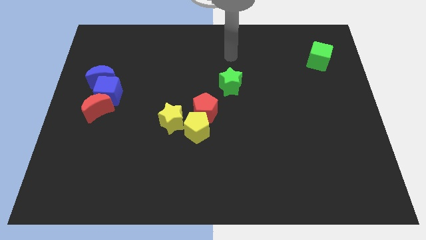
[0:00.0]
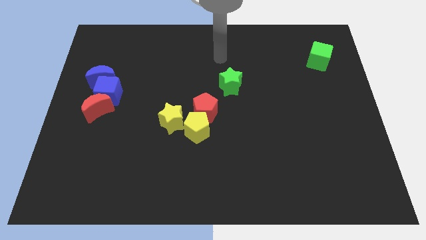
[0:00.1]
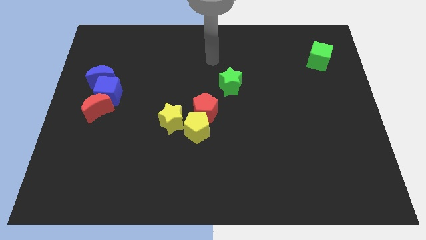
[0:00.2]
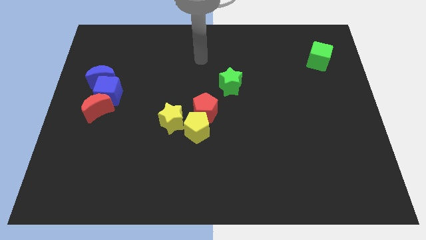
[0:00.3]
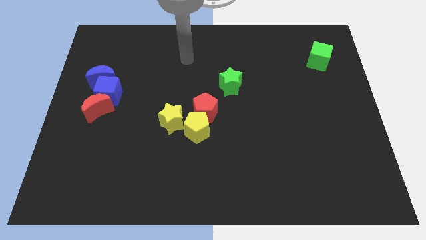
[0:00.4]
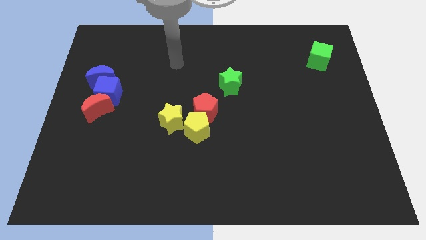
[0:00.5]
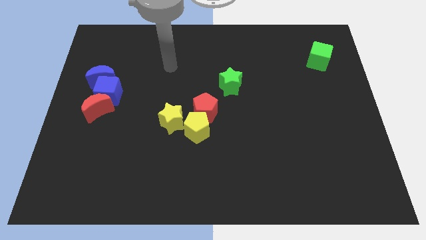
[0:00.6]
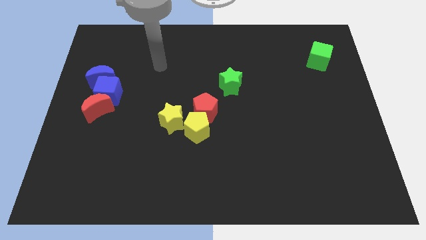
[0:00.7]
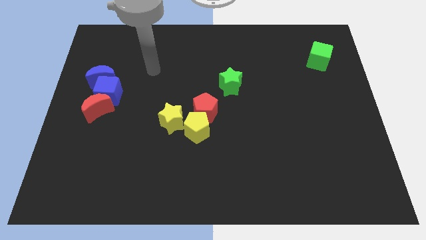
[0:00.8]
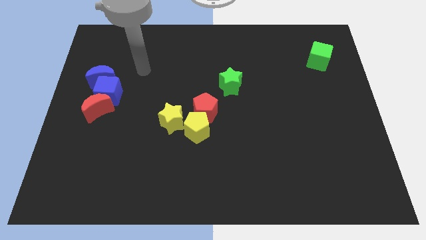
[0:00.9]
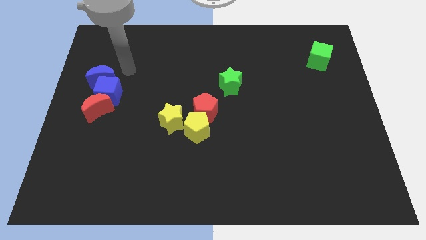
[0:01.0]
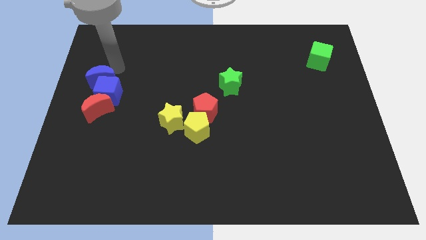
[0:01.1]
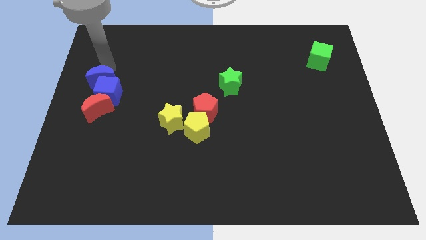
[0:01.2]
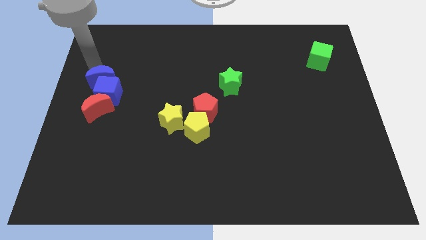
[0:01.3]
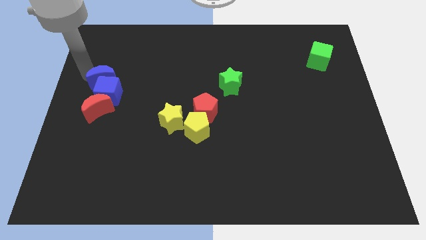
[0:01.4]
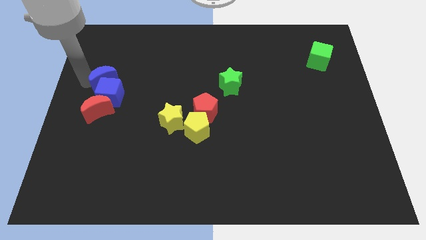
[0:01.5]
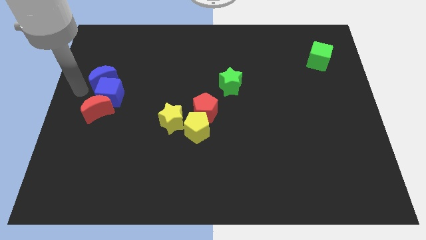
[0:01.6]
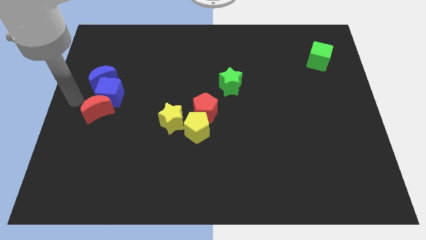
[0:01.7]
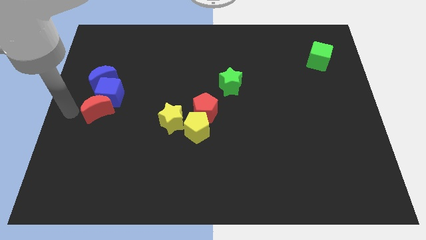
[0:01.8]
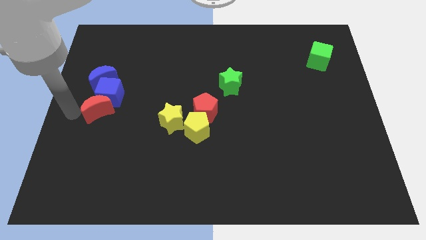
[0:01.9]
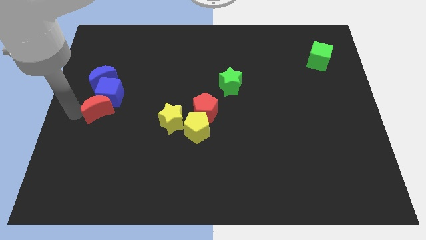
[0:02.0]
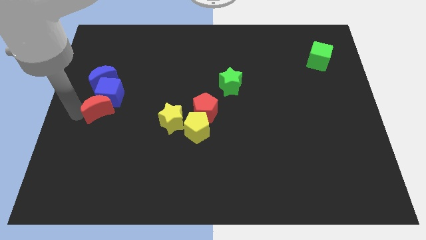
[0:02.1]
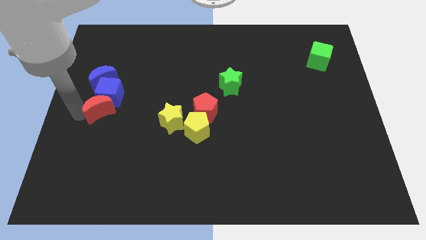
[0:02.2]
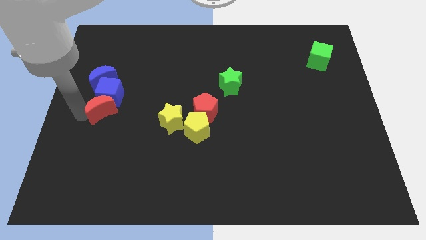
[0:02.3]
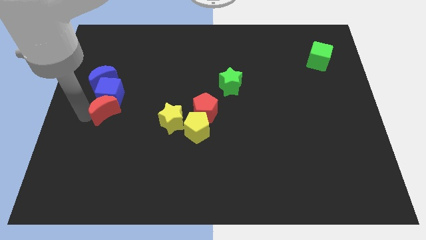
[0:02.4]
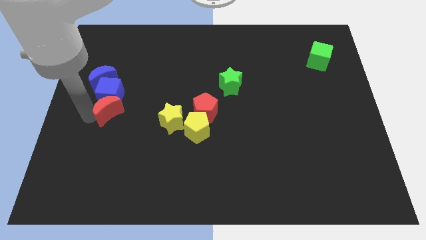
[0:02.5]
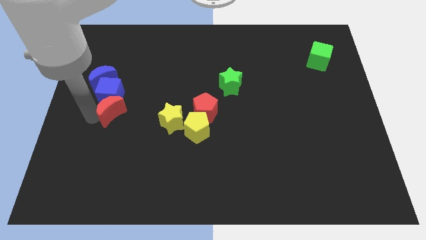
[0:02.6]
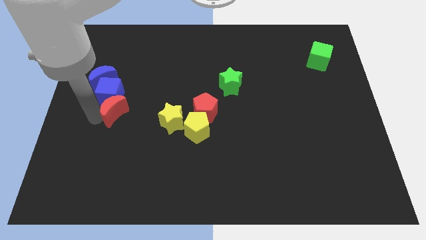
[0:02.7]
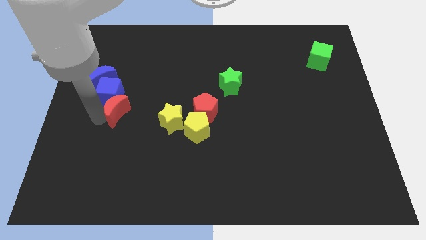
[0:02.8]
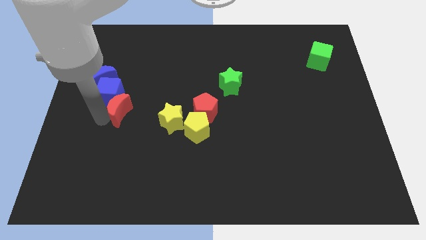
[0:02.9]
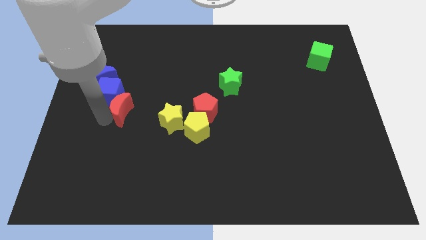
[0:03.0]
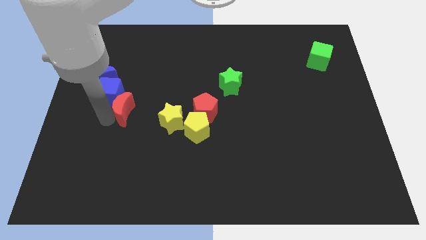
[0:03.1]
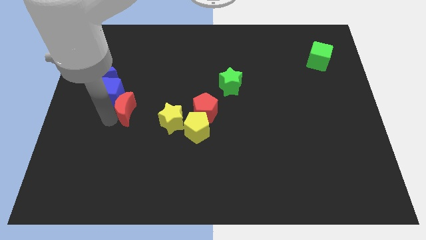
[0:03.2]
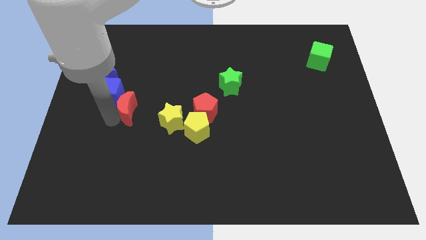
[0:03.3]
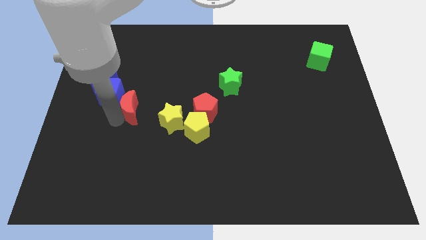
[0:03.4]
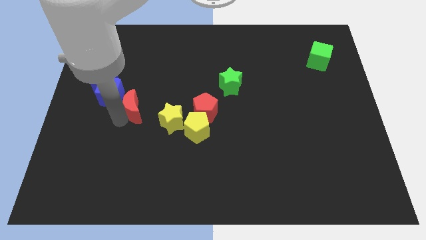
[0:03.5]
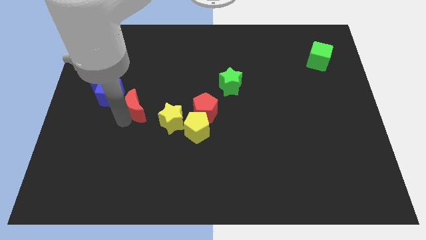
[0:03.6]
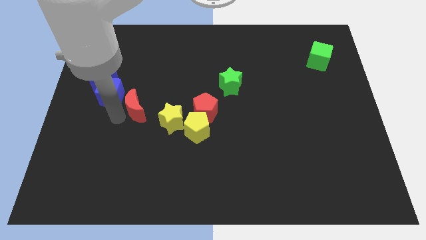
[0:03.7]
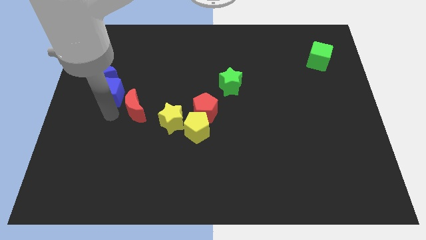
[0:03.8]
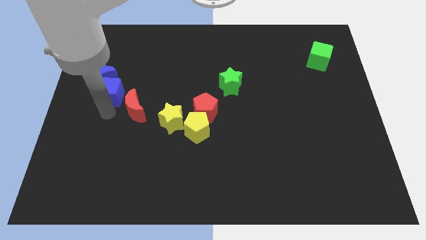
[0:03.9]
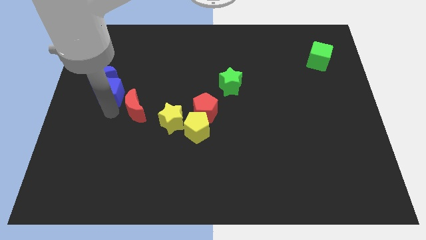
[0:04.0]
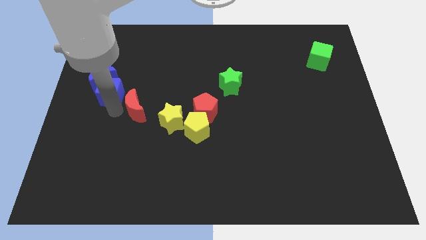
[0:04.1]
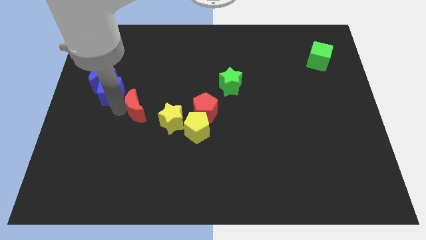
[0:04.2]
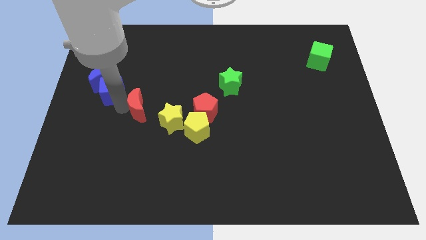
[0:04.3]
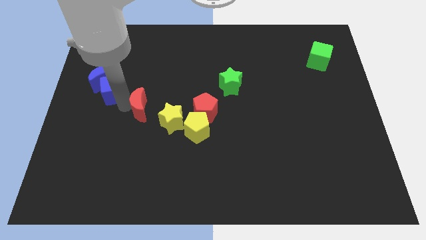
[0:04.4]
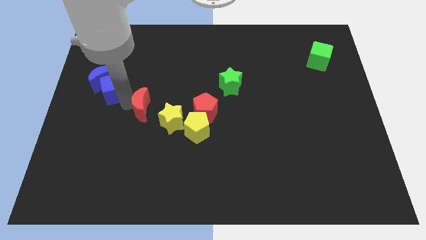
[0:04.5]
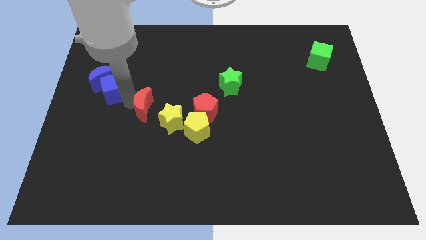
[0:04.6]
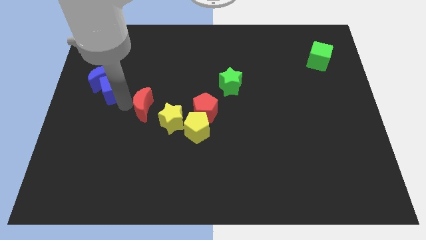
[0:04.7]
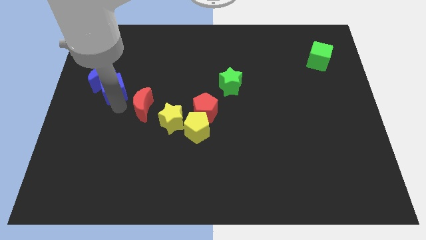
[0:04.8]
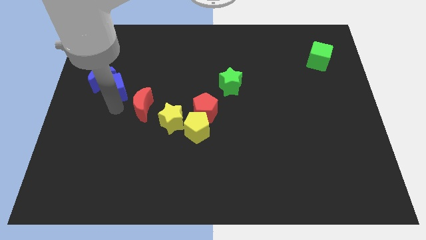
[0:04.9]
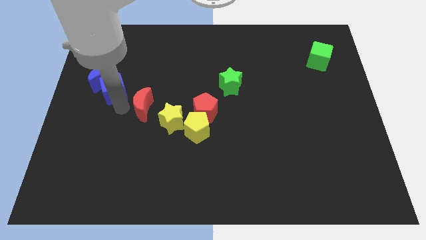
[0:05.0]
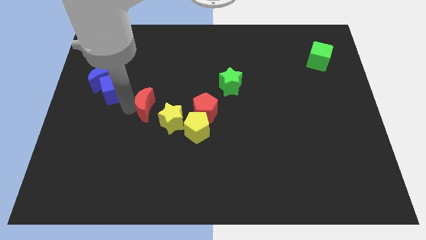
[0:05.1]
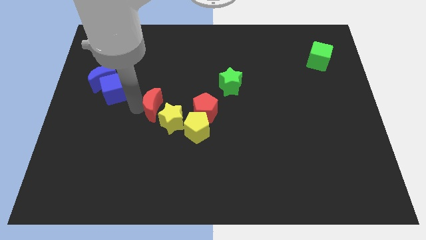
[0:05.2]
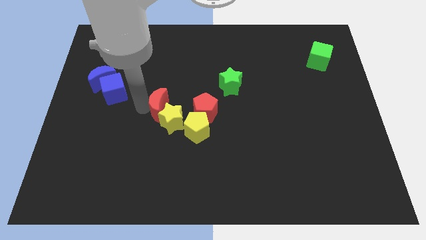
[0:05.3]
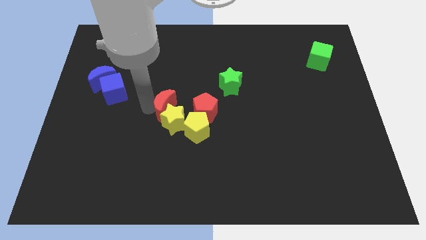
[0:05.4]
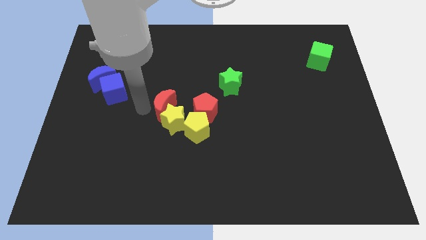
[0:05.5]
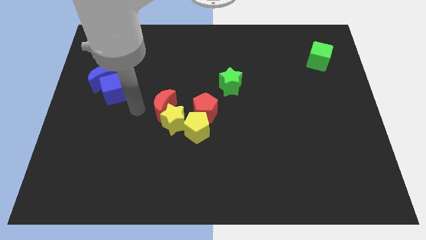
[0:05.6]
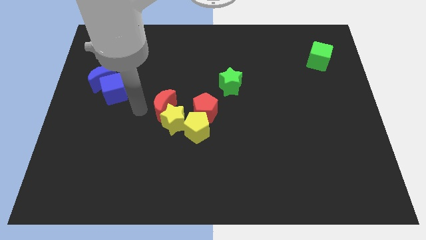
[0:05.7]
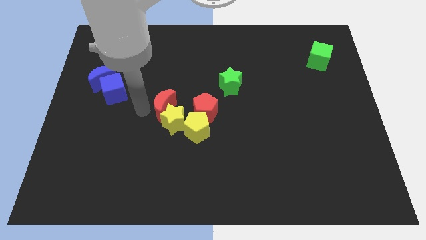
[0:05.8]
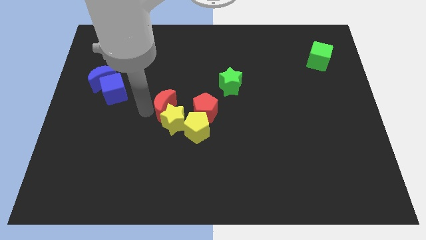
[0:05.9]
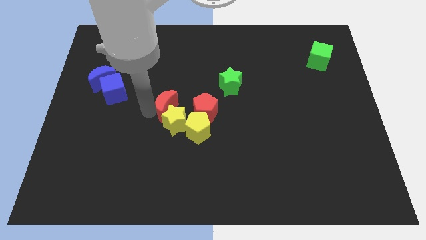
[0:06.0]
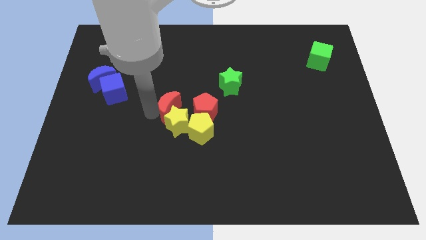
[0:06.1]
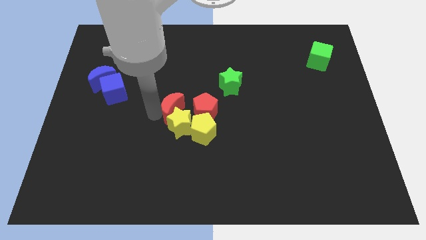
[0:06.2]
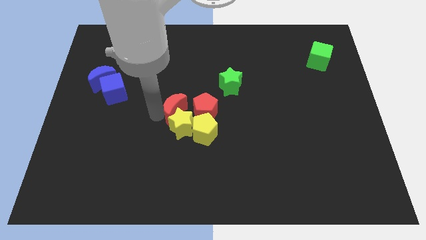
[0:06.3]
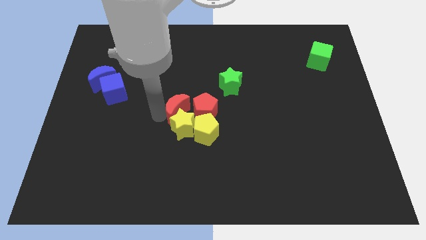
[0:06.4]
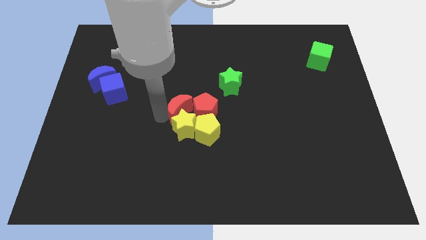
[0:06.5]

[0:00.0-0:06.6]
put the red moon to the red pentagon

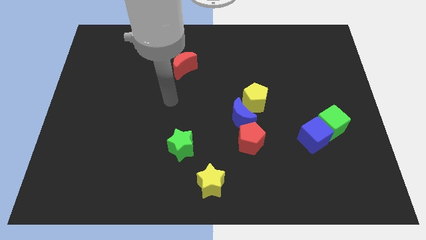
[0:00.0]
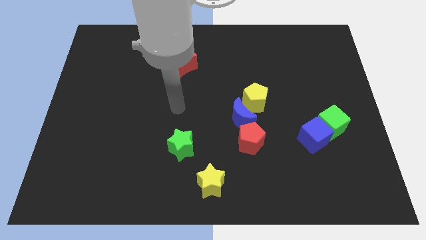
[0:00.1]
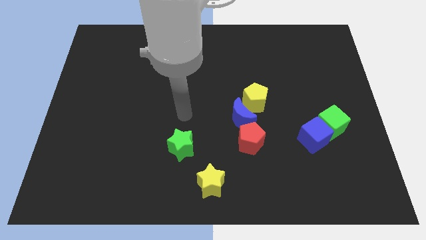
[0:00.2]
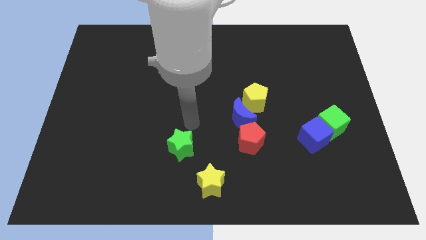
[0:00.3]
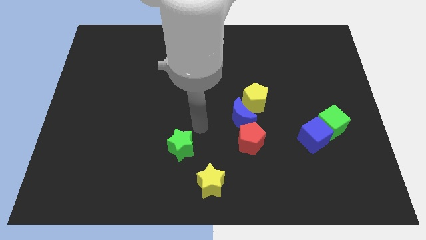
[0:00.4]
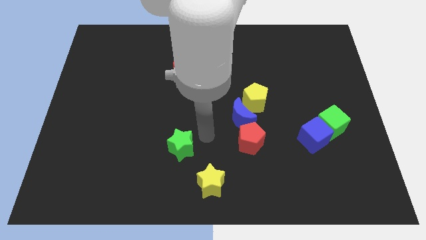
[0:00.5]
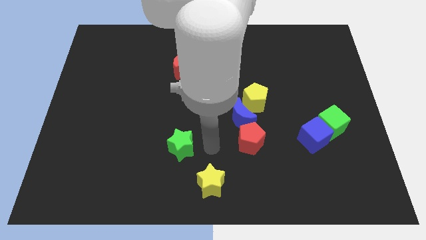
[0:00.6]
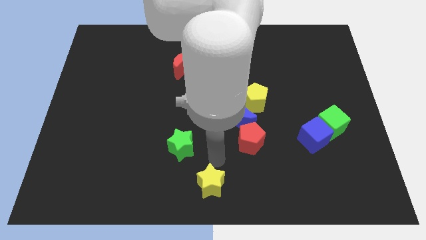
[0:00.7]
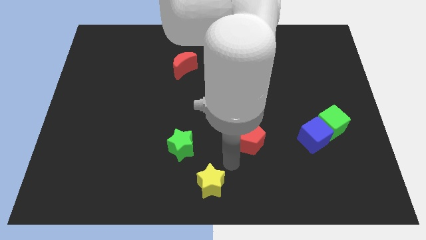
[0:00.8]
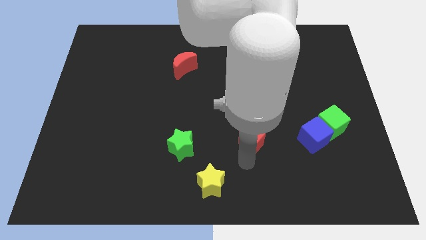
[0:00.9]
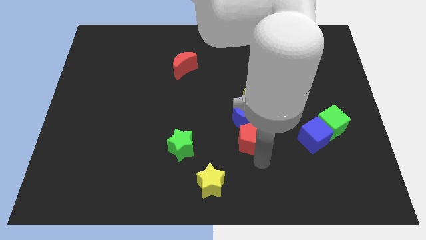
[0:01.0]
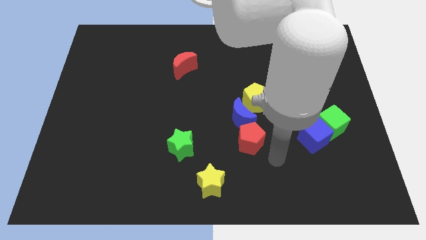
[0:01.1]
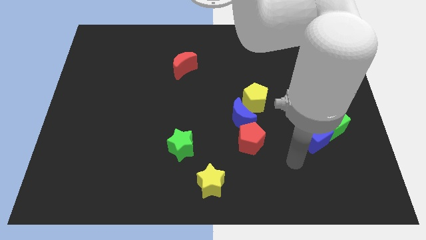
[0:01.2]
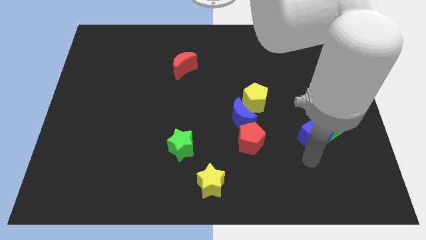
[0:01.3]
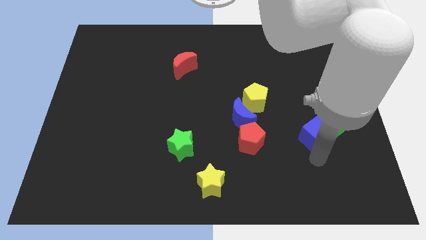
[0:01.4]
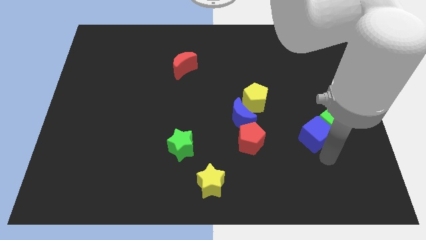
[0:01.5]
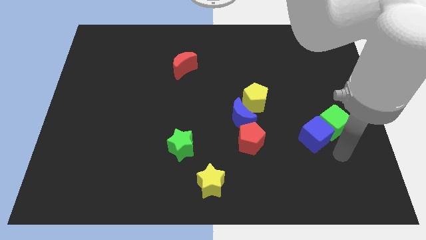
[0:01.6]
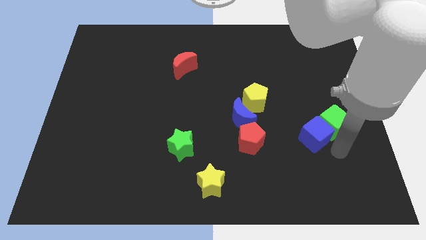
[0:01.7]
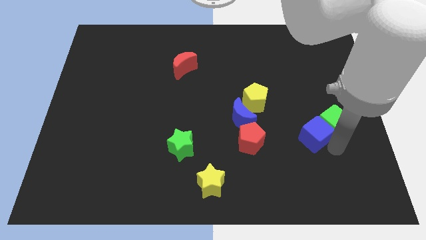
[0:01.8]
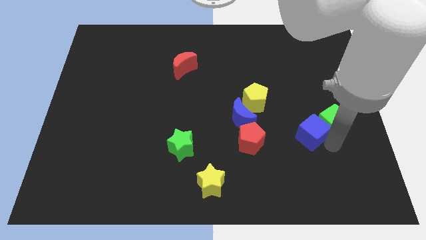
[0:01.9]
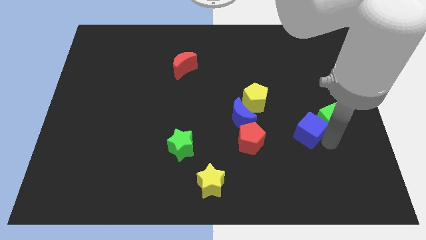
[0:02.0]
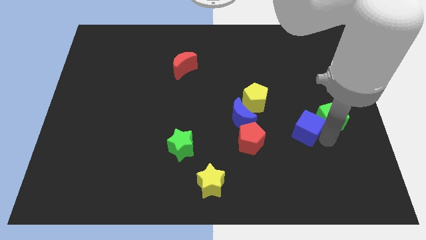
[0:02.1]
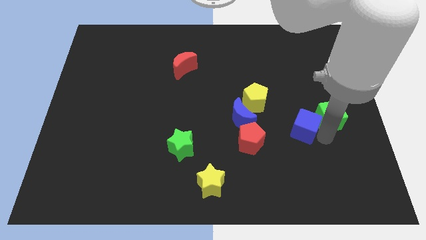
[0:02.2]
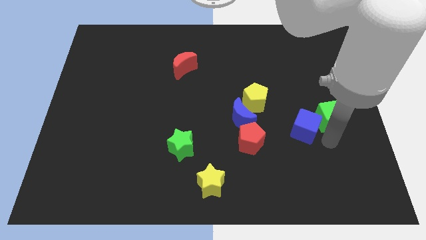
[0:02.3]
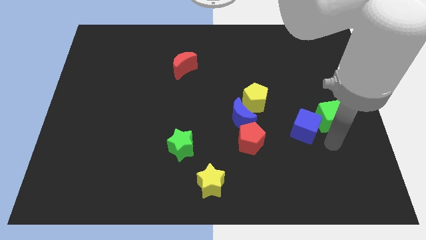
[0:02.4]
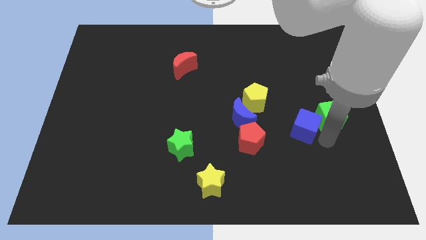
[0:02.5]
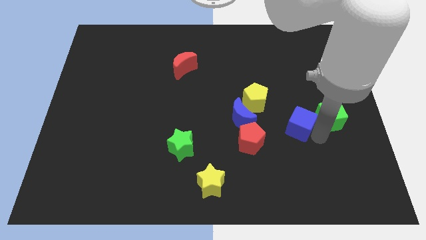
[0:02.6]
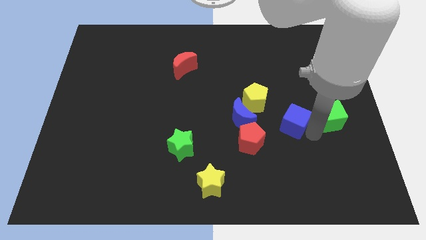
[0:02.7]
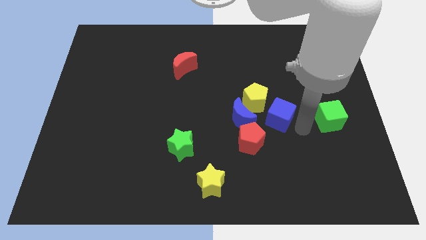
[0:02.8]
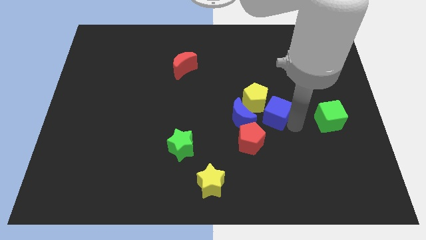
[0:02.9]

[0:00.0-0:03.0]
push the blue cube close to the yellow pentagon
